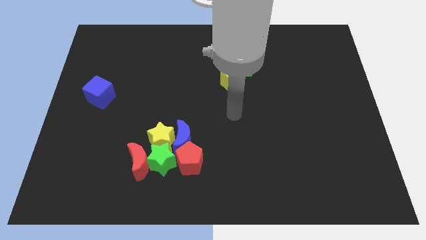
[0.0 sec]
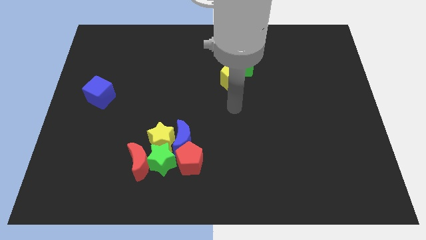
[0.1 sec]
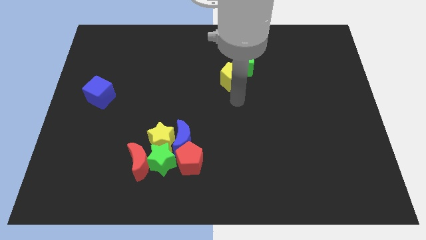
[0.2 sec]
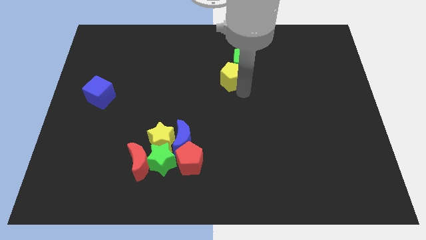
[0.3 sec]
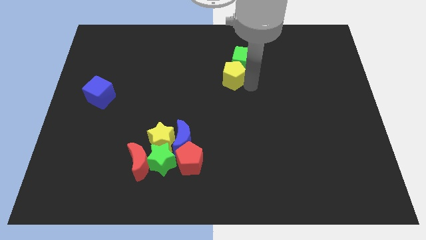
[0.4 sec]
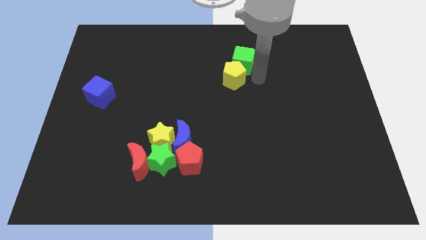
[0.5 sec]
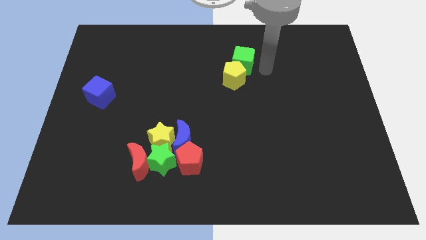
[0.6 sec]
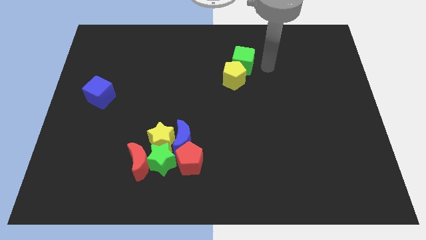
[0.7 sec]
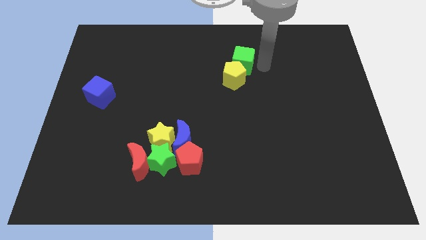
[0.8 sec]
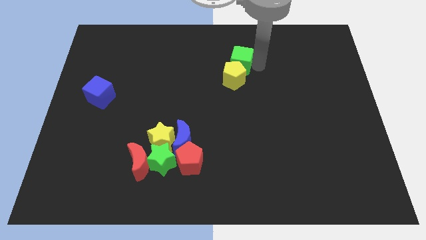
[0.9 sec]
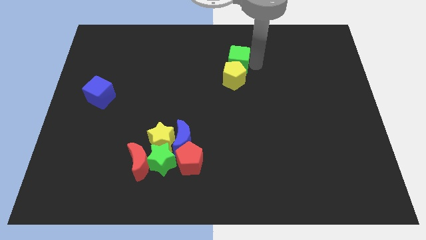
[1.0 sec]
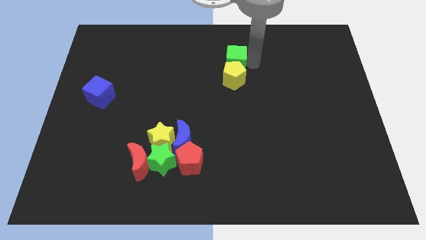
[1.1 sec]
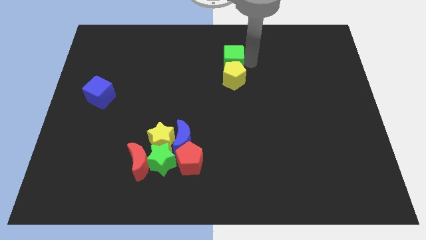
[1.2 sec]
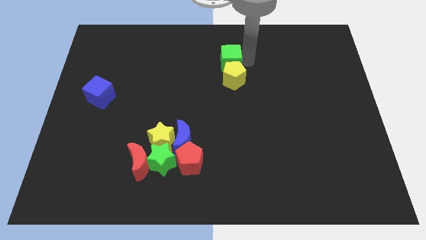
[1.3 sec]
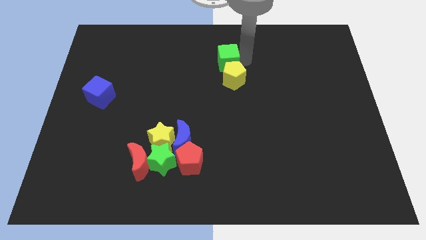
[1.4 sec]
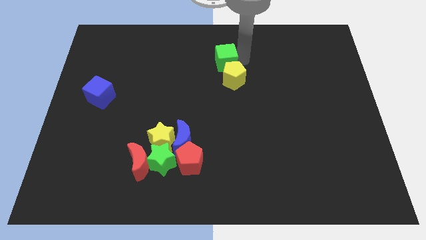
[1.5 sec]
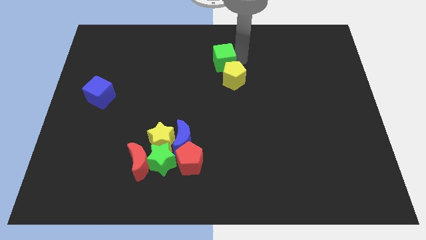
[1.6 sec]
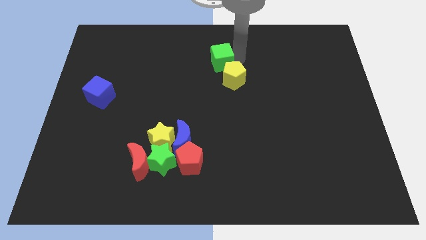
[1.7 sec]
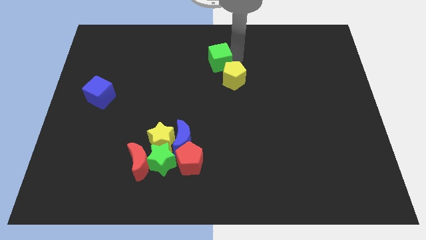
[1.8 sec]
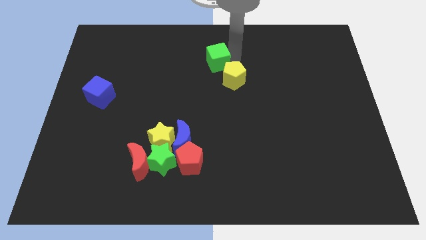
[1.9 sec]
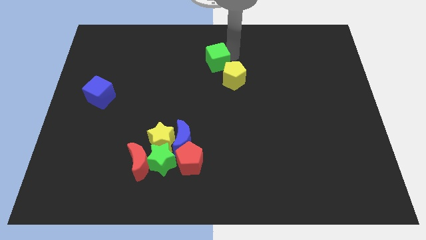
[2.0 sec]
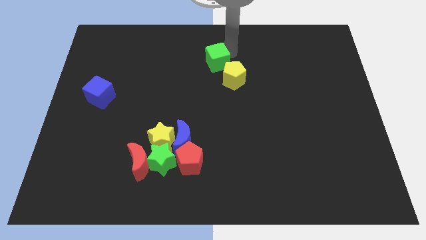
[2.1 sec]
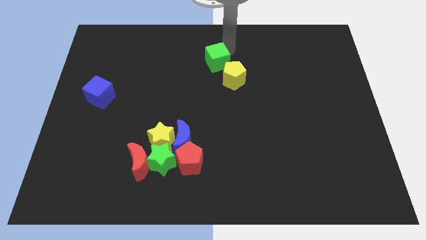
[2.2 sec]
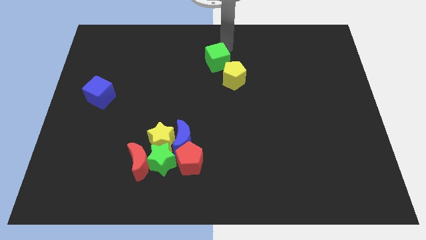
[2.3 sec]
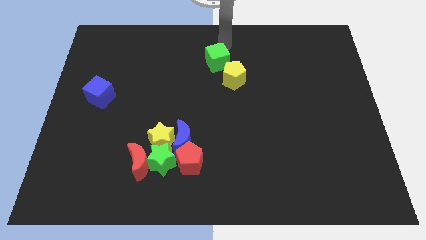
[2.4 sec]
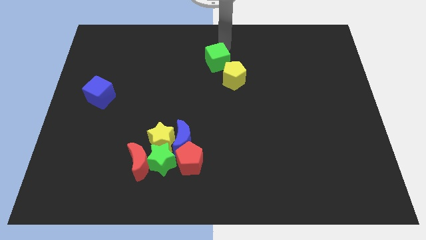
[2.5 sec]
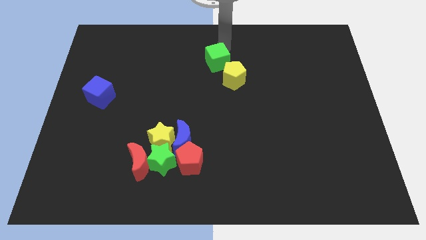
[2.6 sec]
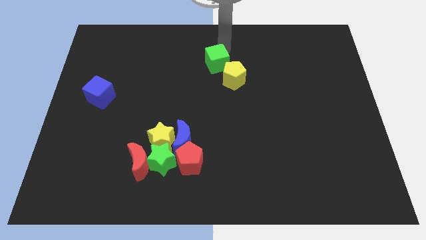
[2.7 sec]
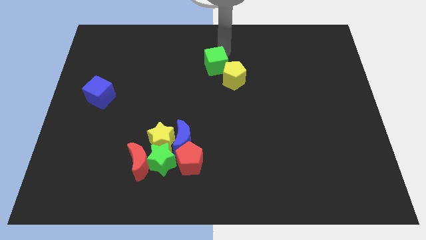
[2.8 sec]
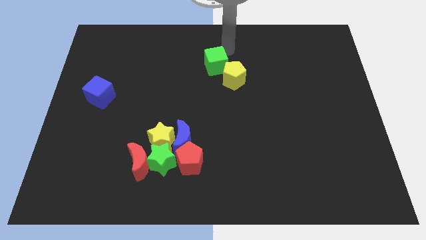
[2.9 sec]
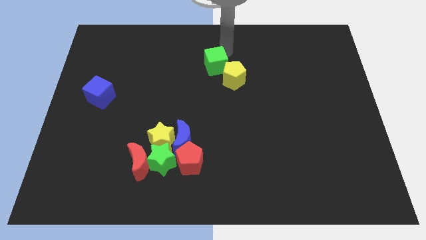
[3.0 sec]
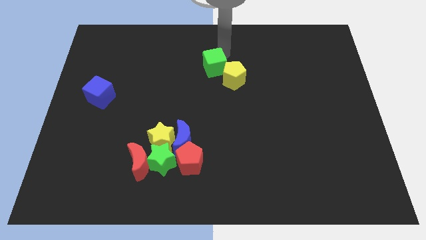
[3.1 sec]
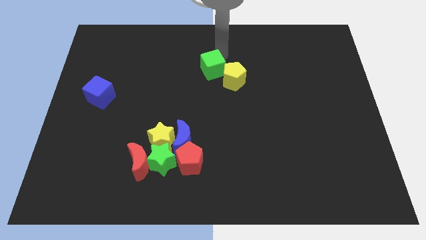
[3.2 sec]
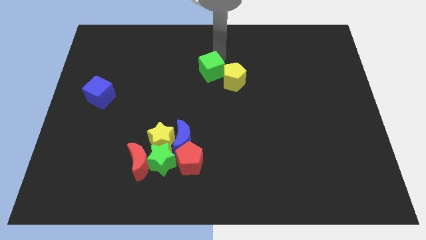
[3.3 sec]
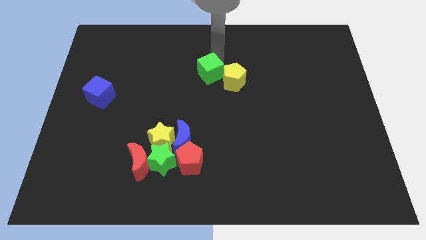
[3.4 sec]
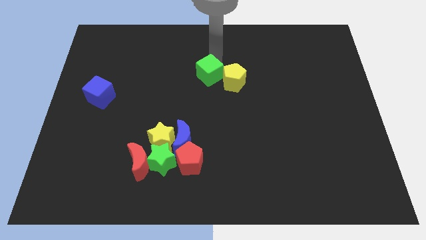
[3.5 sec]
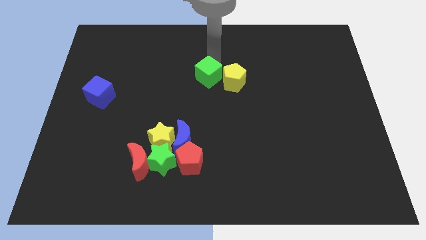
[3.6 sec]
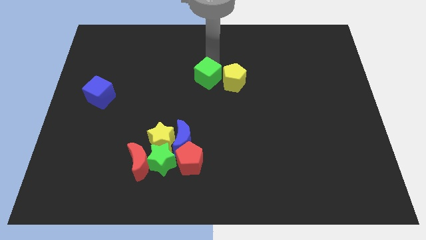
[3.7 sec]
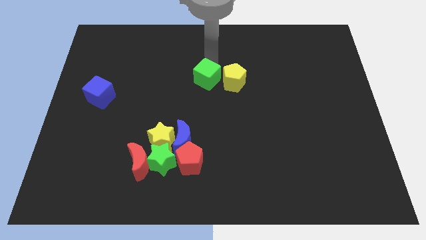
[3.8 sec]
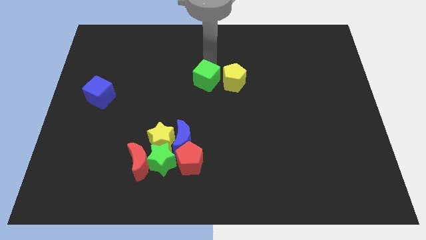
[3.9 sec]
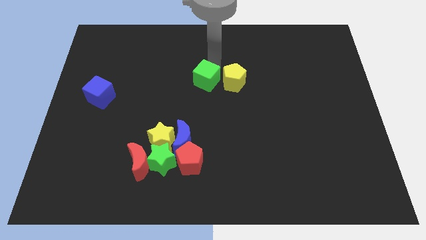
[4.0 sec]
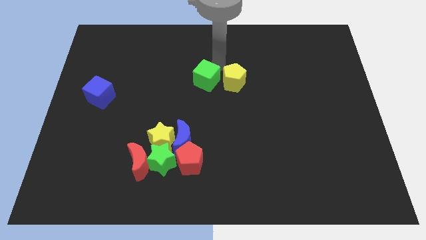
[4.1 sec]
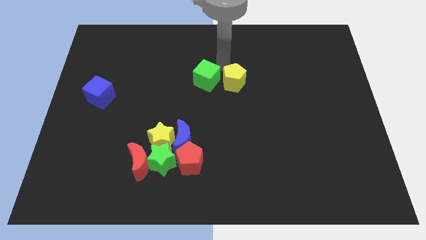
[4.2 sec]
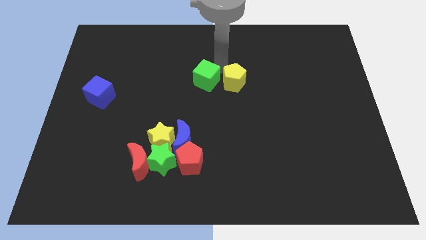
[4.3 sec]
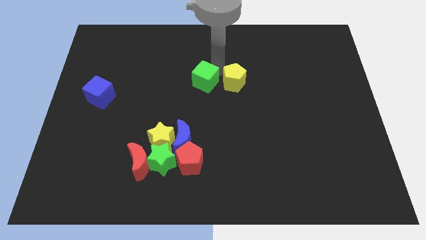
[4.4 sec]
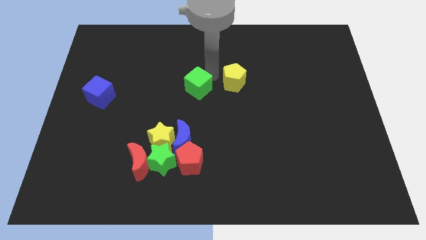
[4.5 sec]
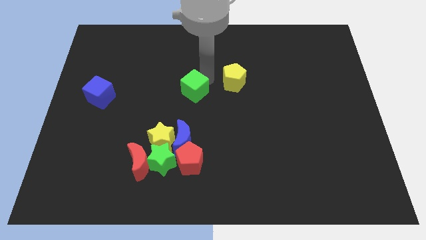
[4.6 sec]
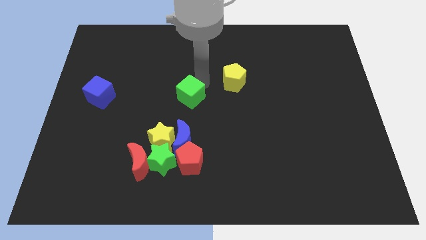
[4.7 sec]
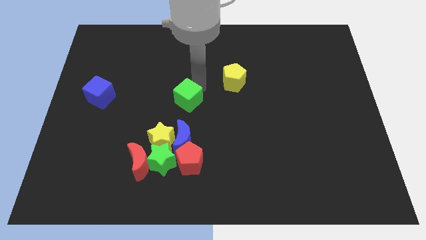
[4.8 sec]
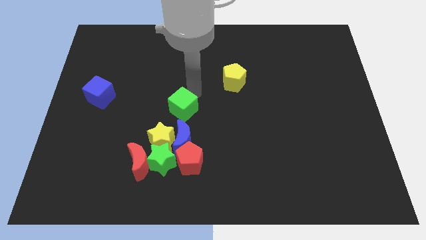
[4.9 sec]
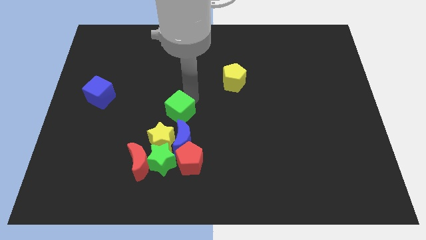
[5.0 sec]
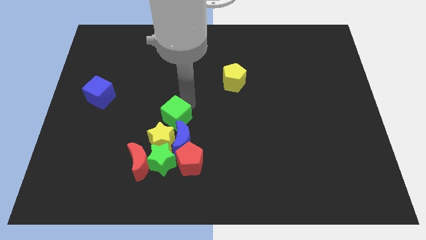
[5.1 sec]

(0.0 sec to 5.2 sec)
put the green cube to the top left of the blue moon

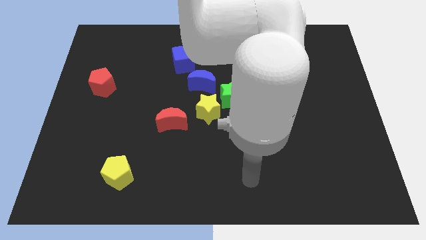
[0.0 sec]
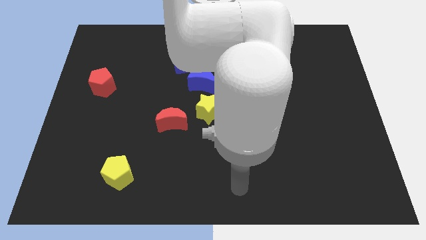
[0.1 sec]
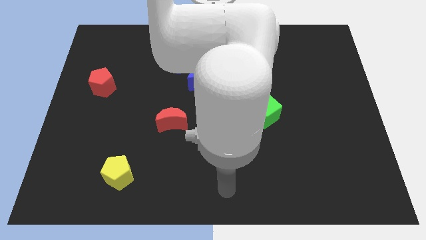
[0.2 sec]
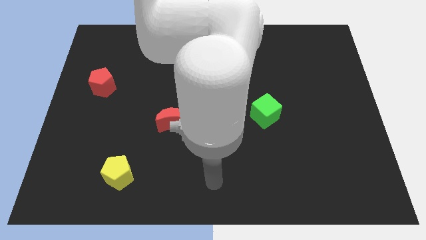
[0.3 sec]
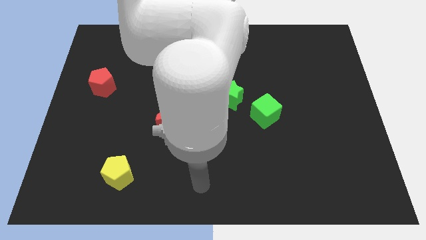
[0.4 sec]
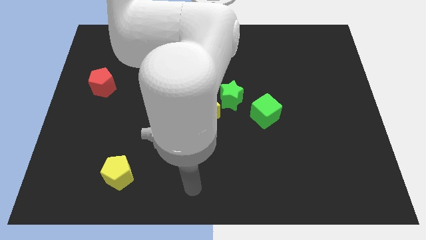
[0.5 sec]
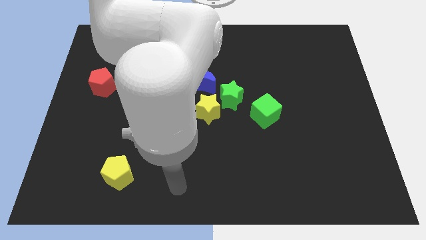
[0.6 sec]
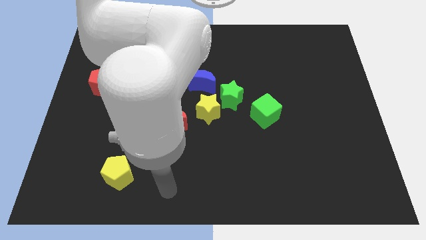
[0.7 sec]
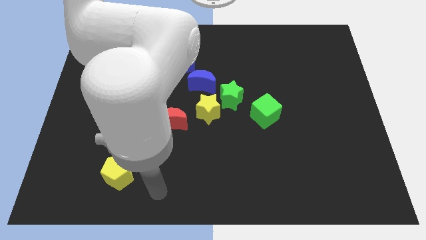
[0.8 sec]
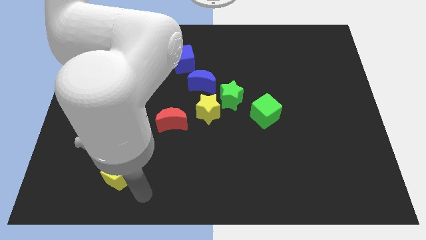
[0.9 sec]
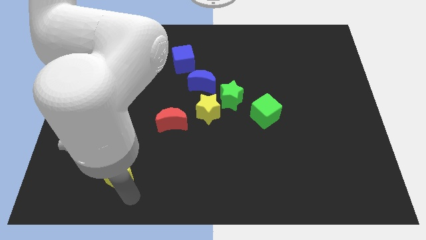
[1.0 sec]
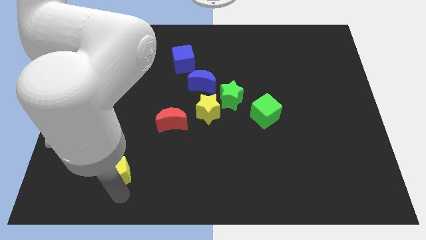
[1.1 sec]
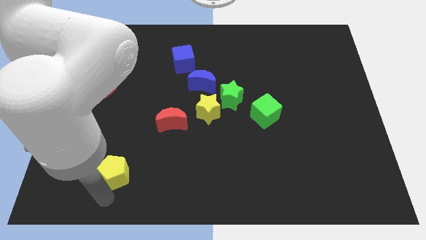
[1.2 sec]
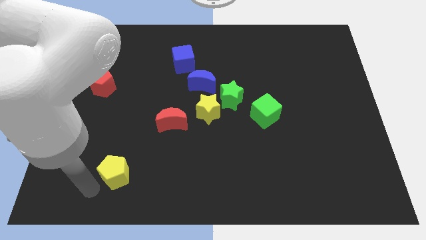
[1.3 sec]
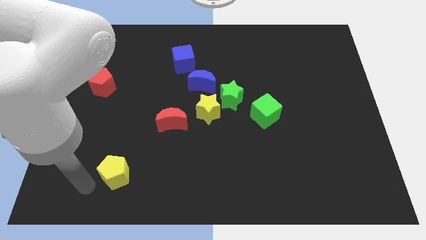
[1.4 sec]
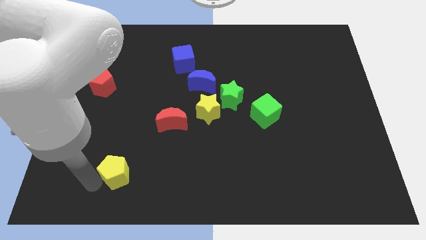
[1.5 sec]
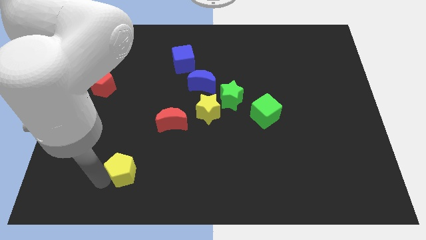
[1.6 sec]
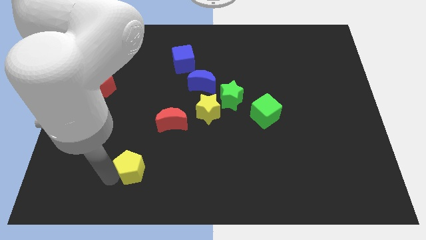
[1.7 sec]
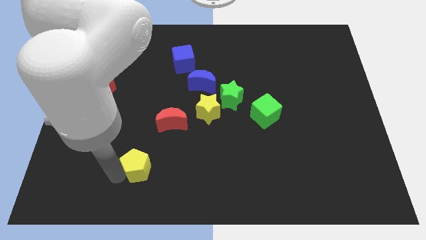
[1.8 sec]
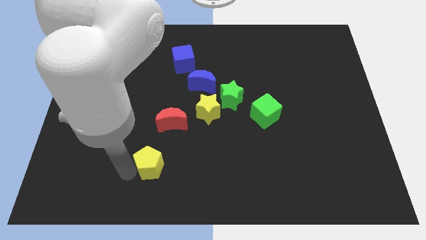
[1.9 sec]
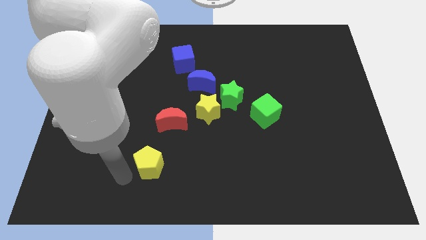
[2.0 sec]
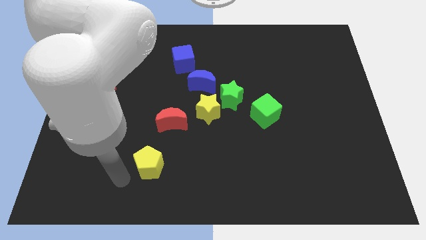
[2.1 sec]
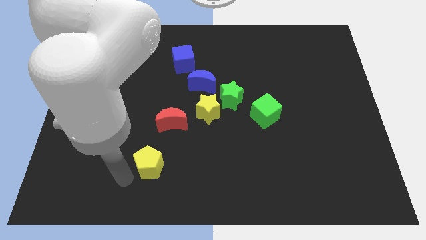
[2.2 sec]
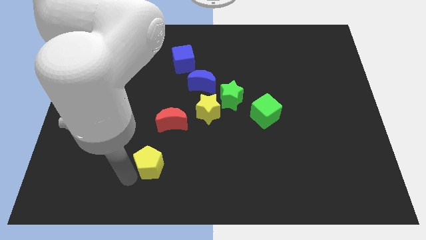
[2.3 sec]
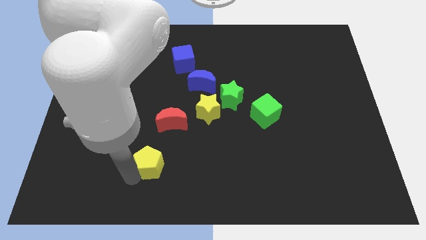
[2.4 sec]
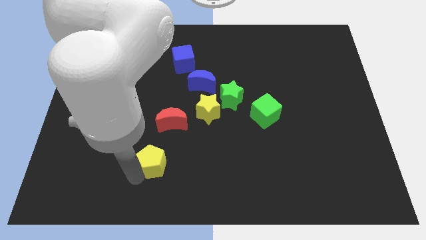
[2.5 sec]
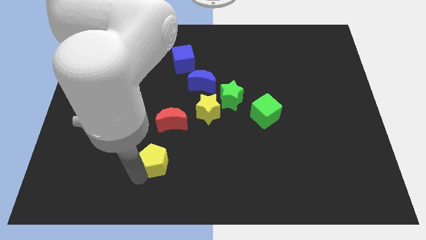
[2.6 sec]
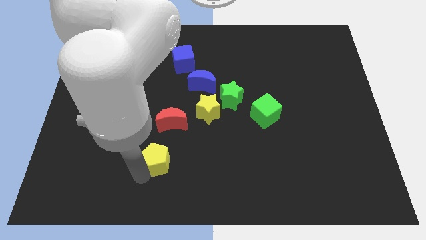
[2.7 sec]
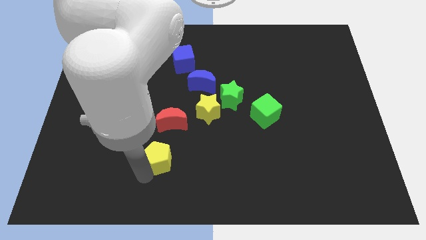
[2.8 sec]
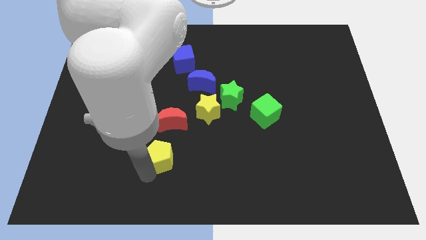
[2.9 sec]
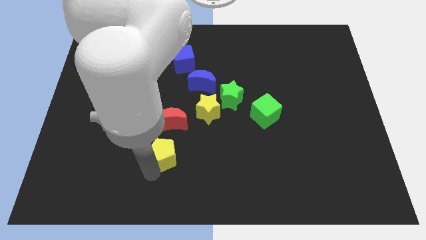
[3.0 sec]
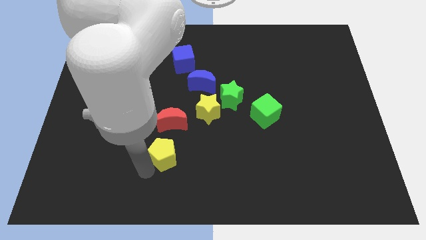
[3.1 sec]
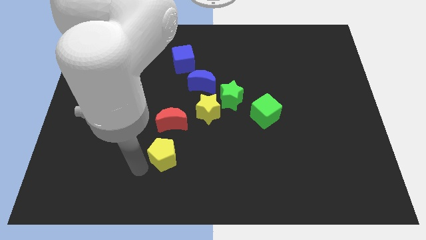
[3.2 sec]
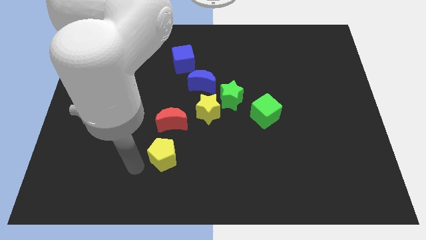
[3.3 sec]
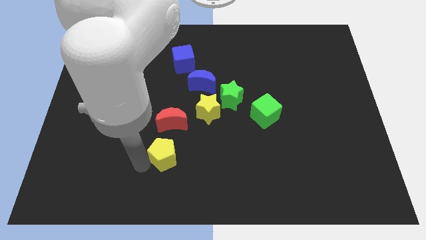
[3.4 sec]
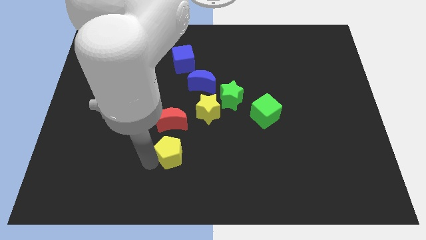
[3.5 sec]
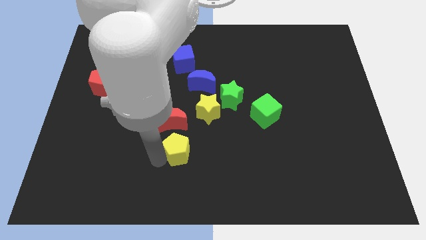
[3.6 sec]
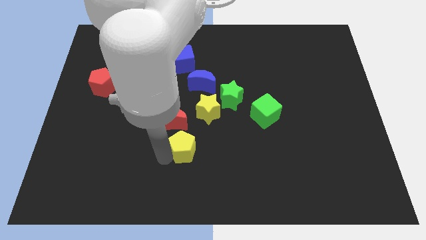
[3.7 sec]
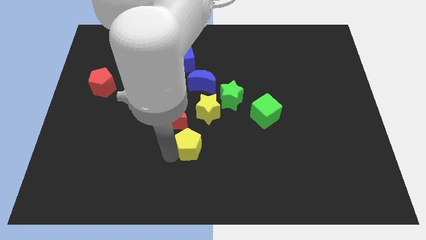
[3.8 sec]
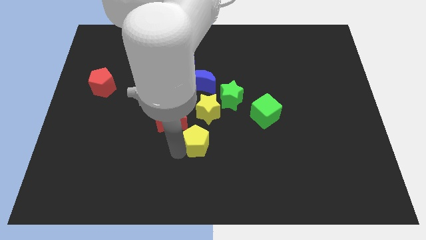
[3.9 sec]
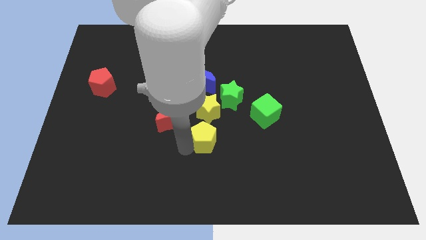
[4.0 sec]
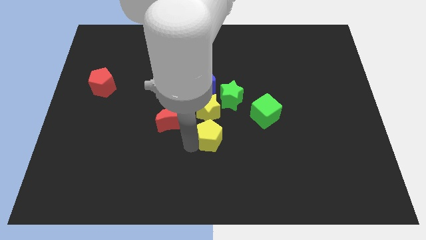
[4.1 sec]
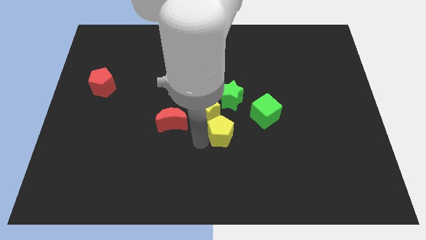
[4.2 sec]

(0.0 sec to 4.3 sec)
move the yellow pentagon to the bottom left side of the green cube
